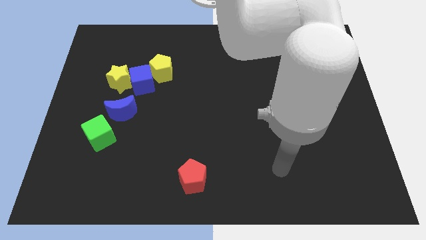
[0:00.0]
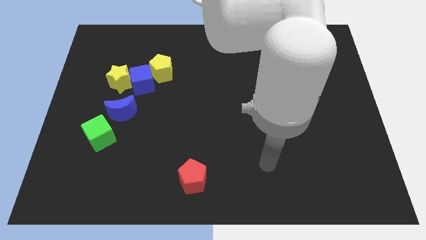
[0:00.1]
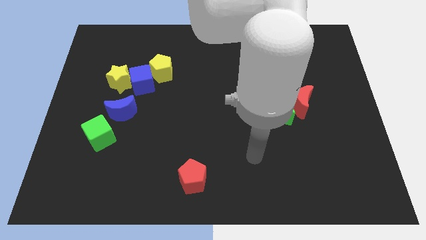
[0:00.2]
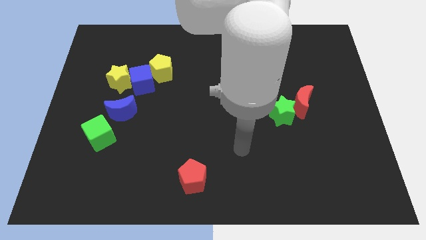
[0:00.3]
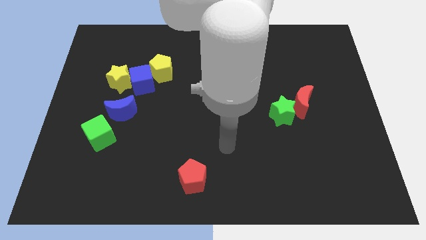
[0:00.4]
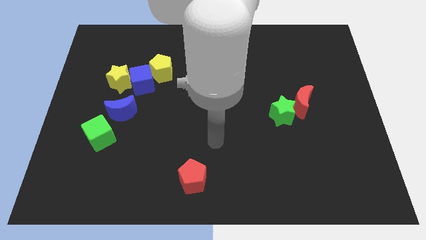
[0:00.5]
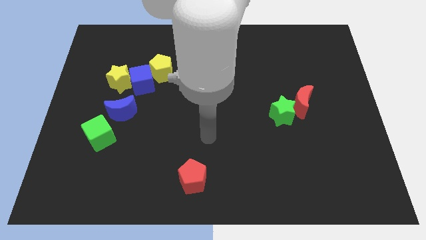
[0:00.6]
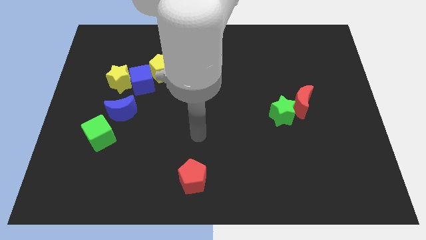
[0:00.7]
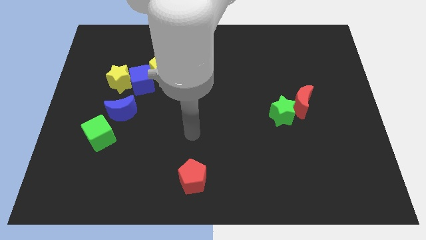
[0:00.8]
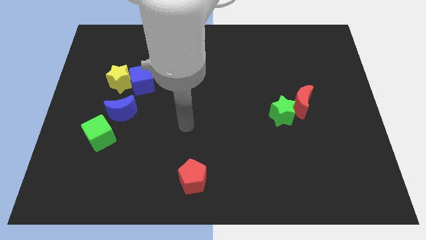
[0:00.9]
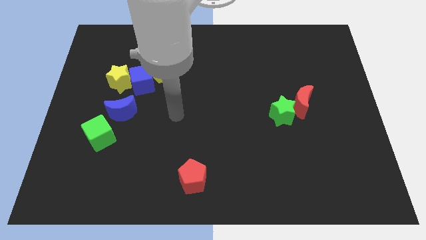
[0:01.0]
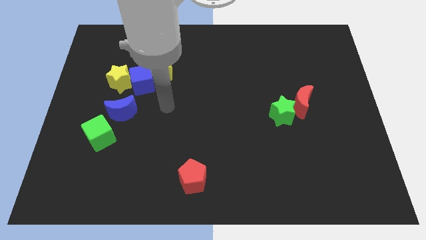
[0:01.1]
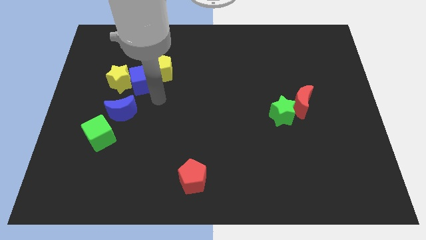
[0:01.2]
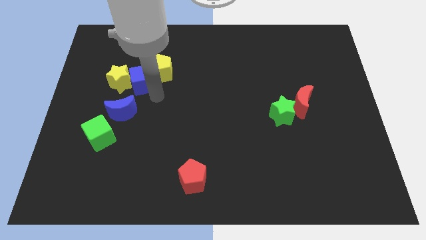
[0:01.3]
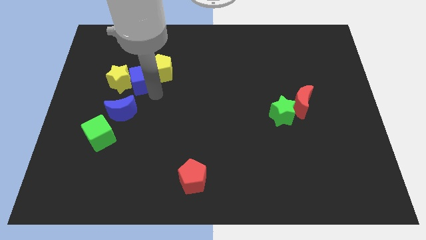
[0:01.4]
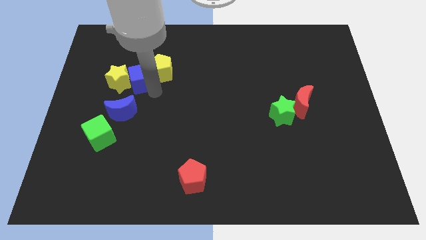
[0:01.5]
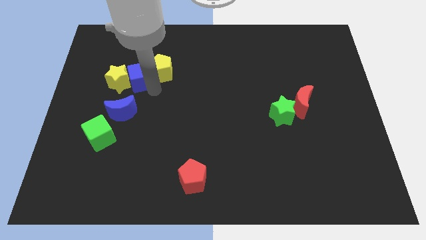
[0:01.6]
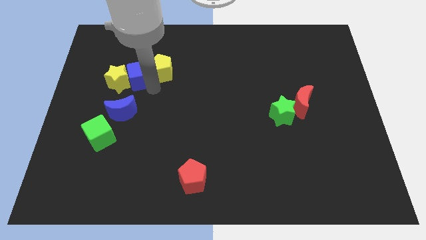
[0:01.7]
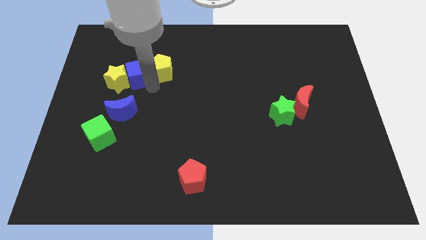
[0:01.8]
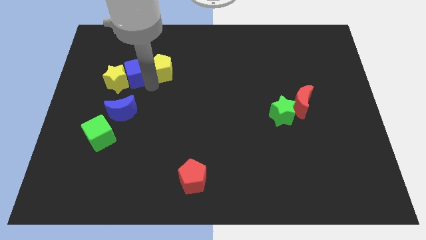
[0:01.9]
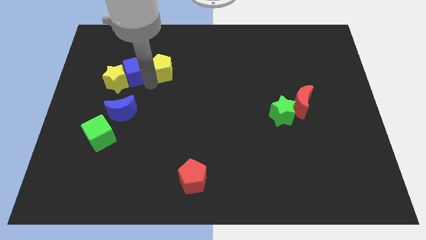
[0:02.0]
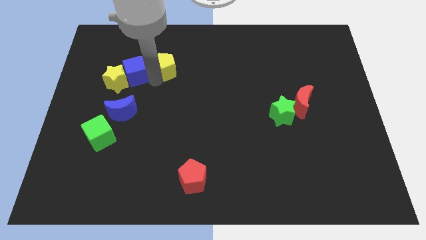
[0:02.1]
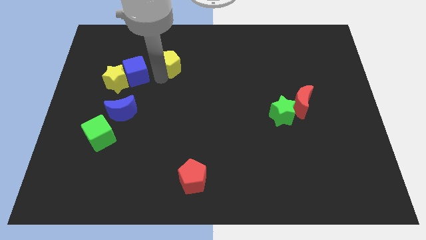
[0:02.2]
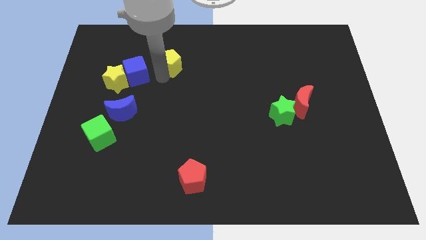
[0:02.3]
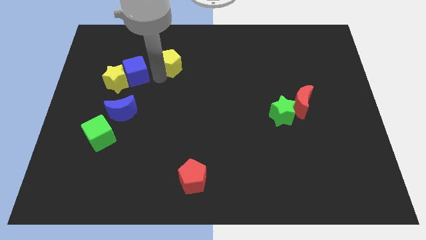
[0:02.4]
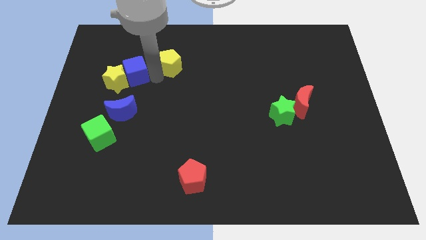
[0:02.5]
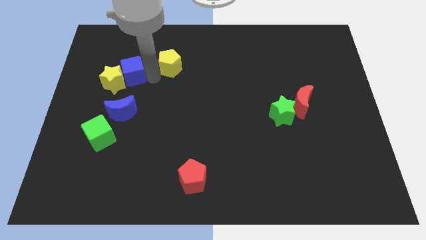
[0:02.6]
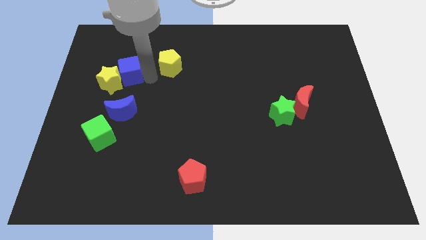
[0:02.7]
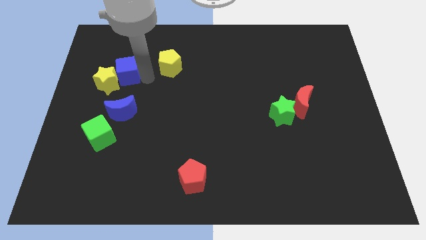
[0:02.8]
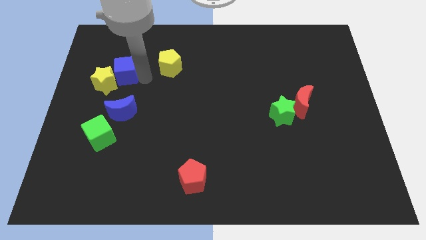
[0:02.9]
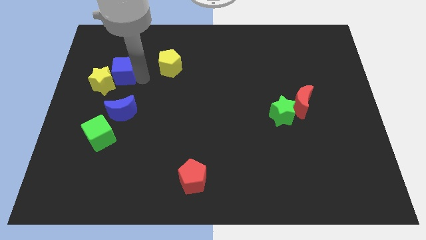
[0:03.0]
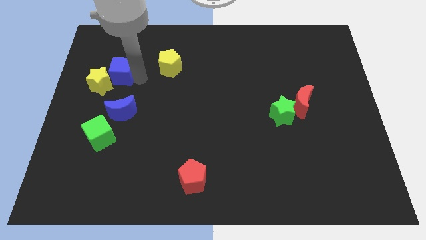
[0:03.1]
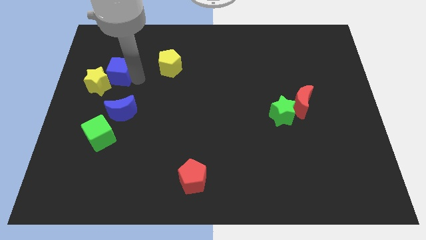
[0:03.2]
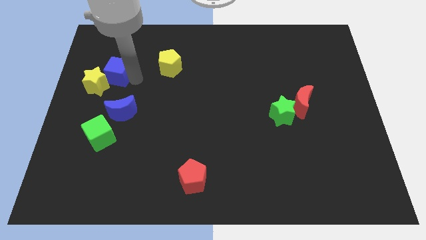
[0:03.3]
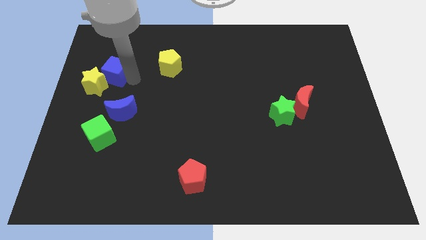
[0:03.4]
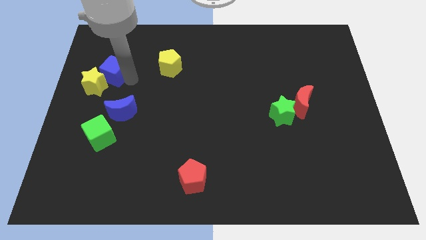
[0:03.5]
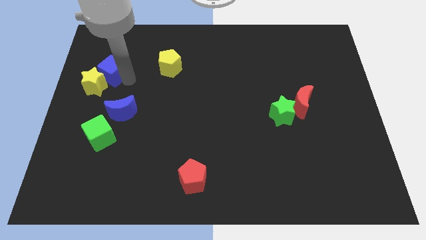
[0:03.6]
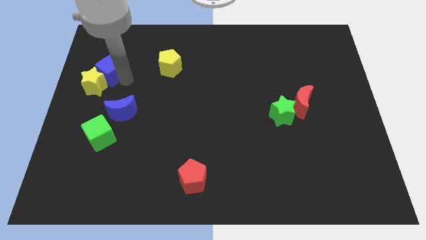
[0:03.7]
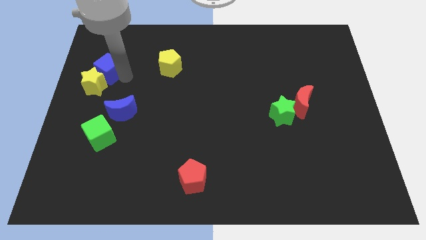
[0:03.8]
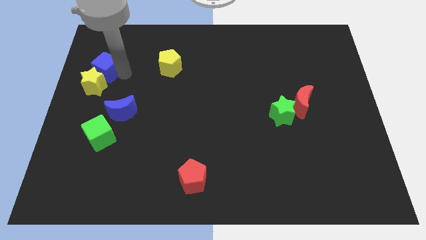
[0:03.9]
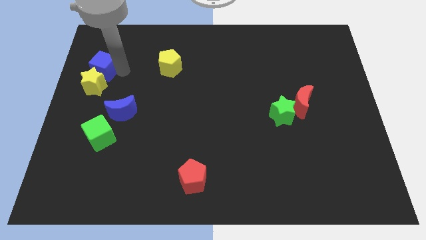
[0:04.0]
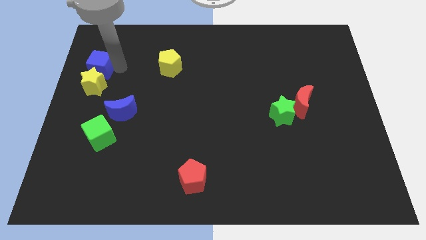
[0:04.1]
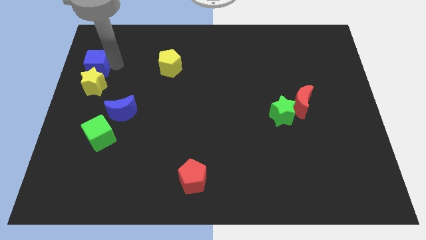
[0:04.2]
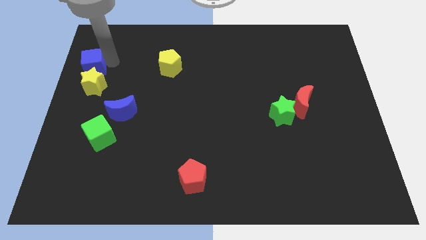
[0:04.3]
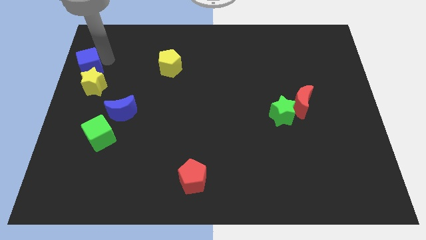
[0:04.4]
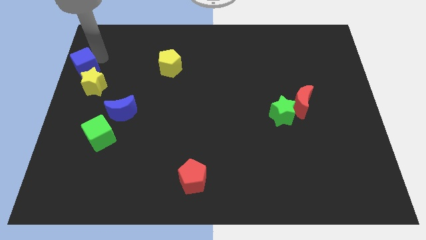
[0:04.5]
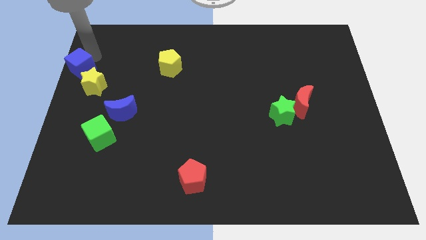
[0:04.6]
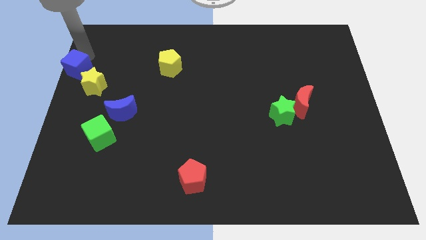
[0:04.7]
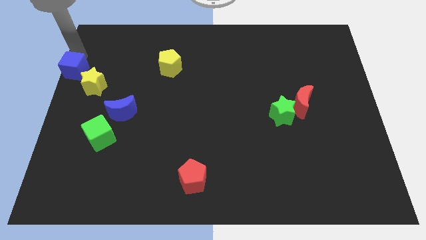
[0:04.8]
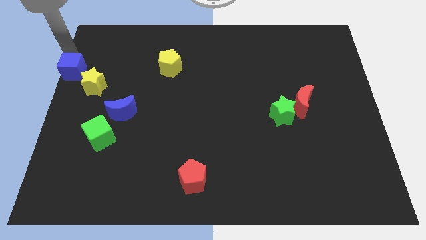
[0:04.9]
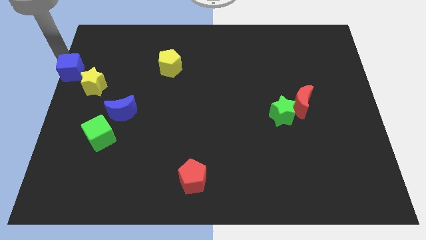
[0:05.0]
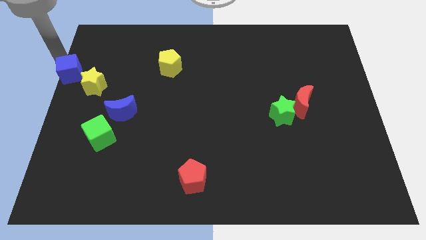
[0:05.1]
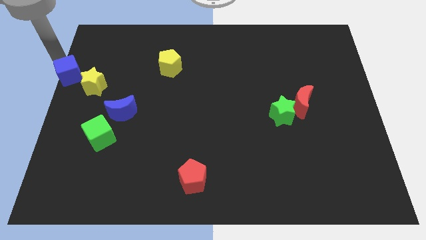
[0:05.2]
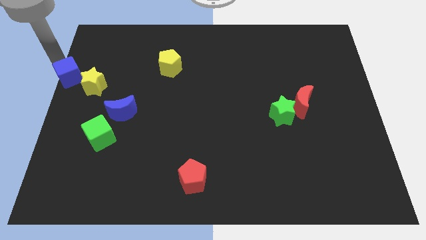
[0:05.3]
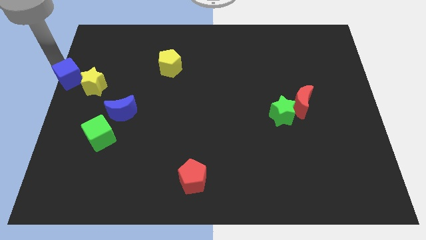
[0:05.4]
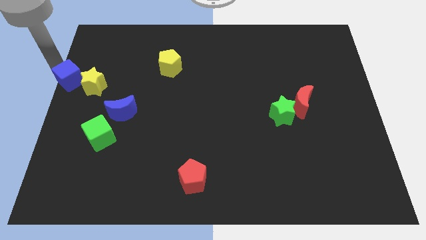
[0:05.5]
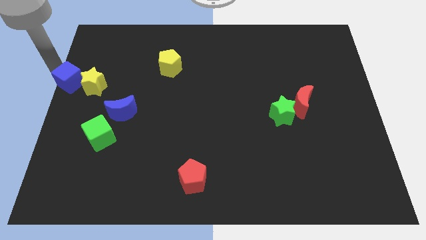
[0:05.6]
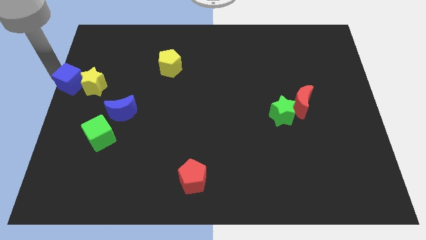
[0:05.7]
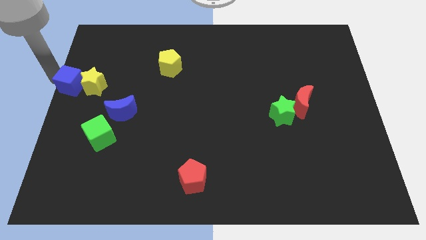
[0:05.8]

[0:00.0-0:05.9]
push the blue cube to the bottom left side of the yellow star

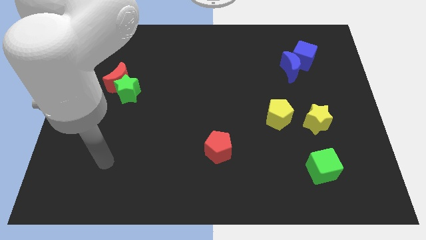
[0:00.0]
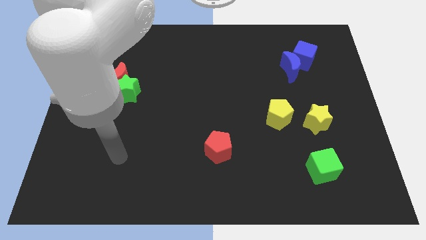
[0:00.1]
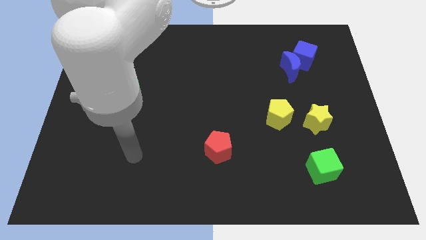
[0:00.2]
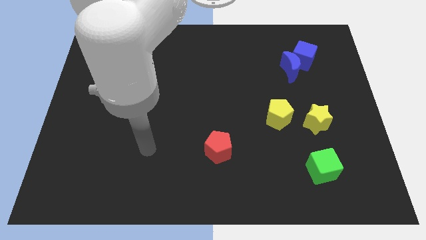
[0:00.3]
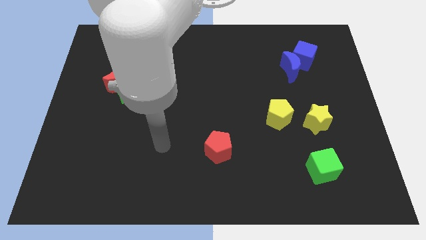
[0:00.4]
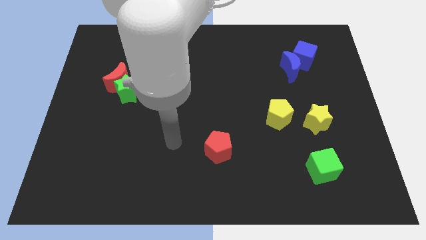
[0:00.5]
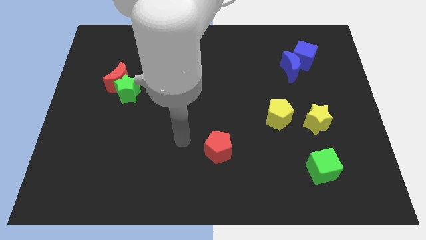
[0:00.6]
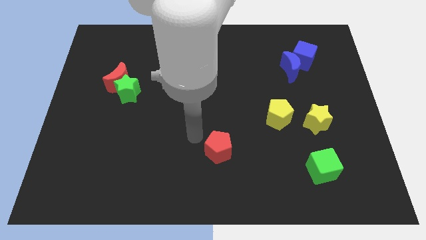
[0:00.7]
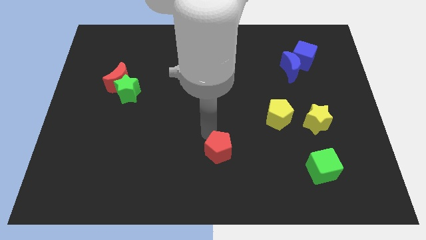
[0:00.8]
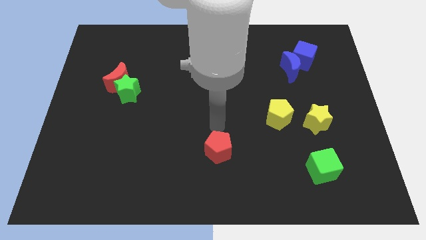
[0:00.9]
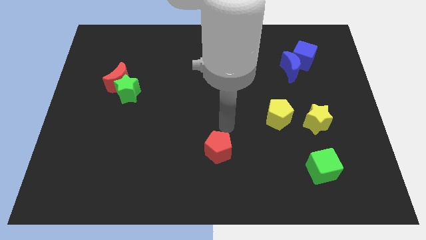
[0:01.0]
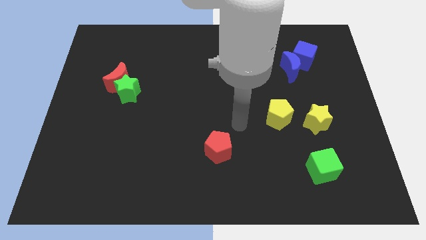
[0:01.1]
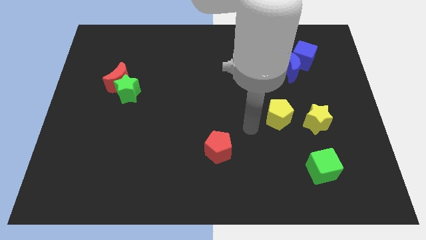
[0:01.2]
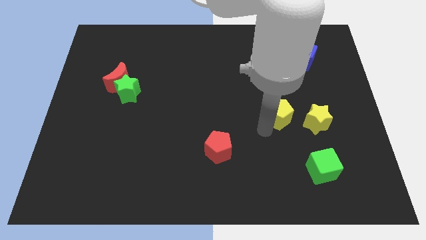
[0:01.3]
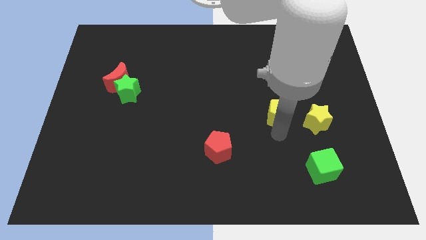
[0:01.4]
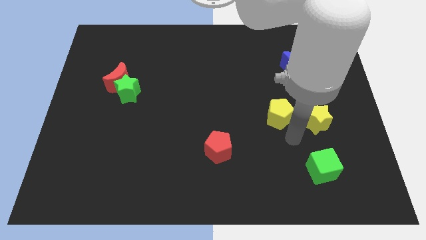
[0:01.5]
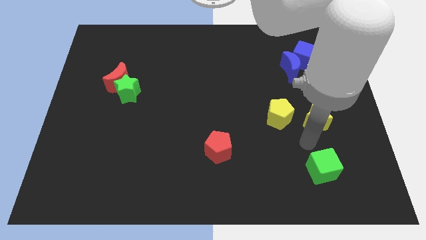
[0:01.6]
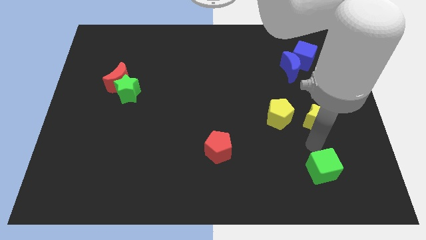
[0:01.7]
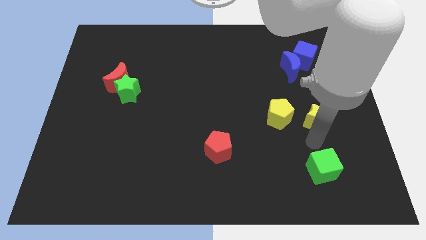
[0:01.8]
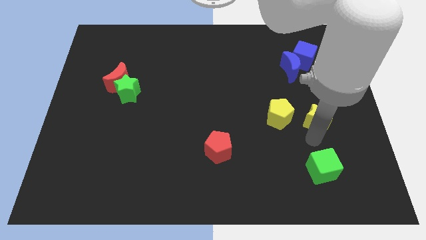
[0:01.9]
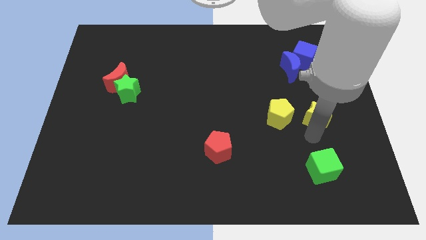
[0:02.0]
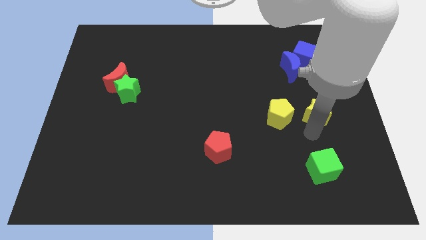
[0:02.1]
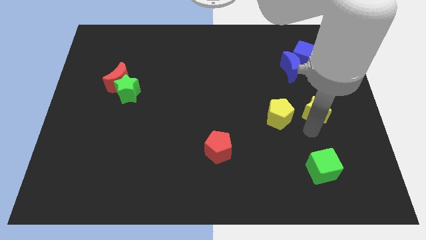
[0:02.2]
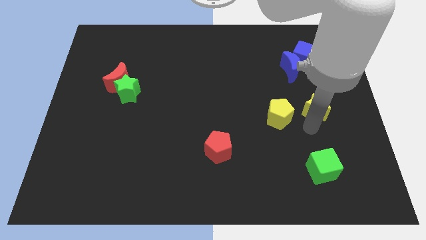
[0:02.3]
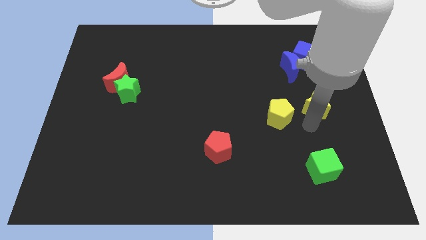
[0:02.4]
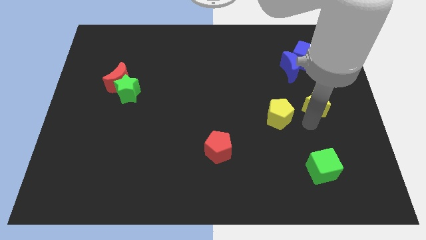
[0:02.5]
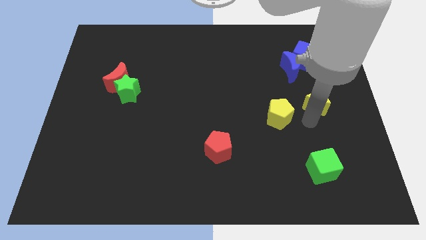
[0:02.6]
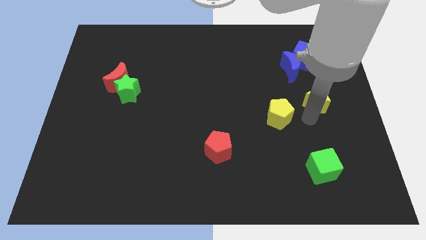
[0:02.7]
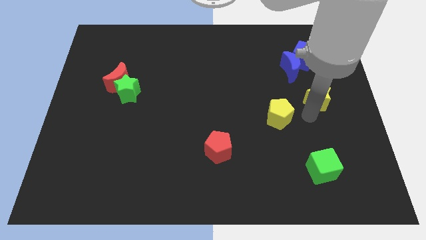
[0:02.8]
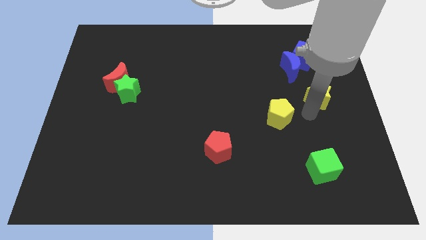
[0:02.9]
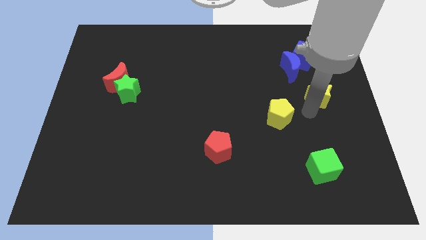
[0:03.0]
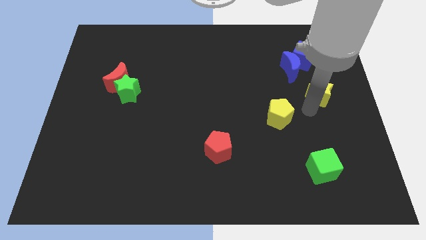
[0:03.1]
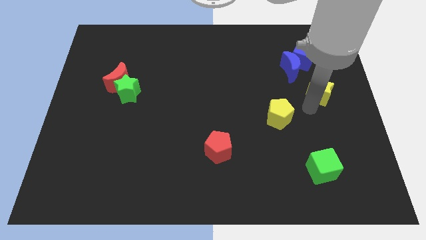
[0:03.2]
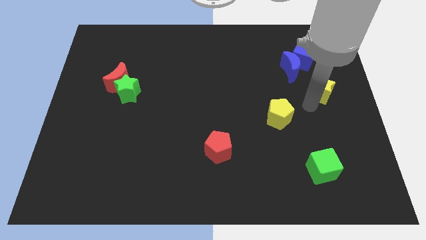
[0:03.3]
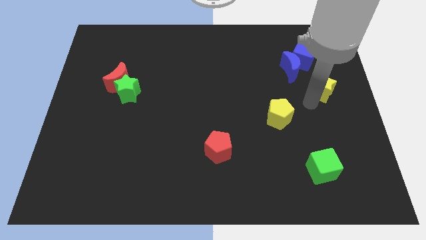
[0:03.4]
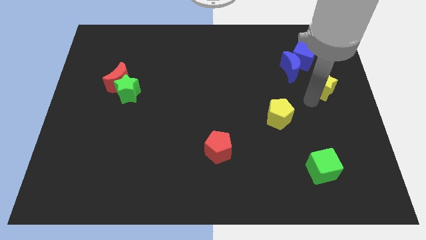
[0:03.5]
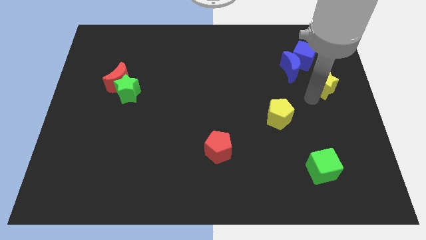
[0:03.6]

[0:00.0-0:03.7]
put the yellow star diagonally down and to the right of the blue cube
